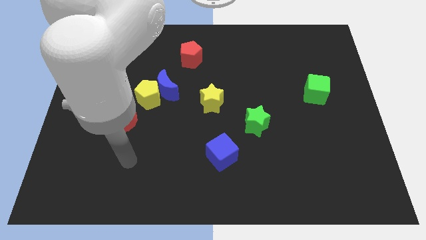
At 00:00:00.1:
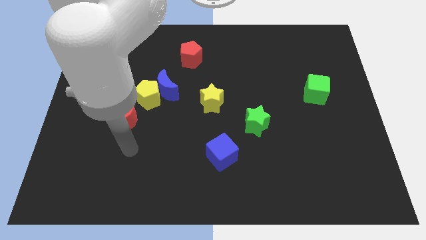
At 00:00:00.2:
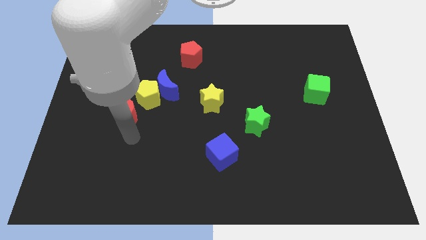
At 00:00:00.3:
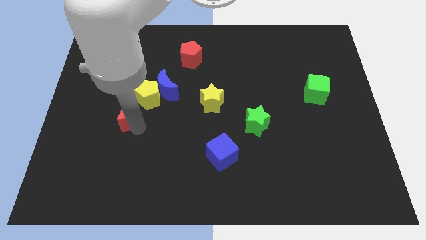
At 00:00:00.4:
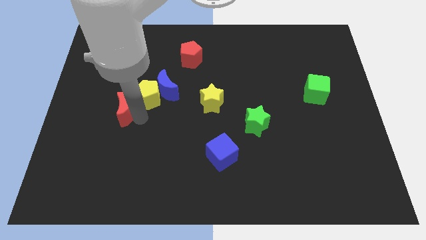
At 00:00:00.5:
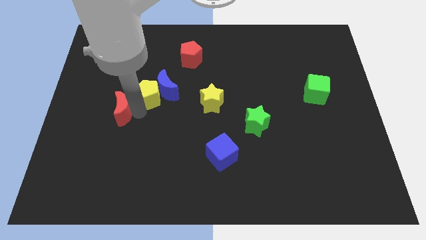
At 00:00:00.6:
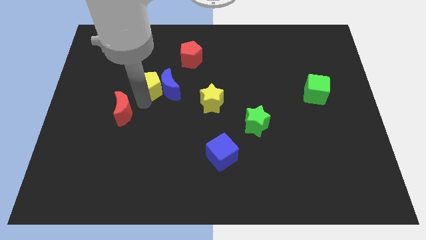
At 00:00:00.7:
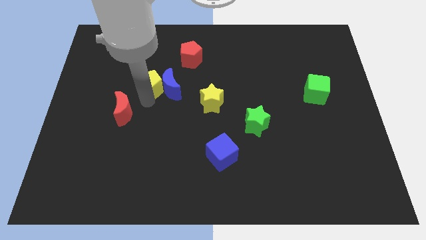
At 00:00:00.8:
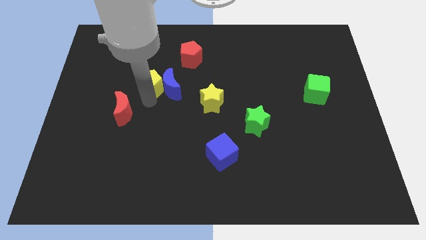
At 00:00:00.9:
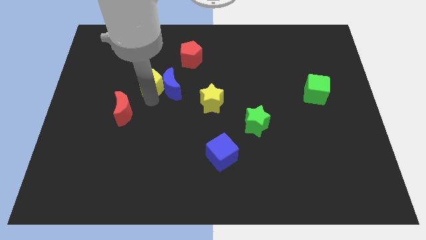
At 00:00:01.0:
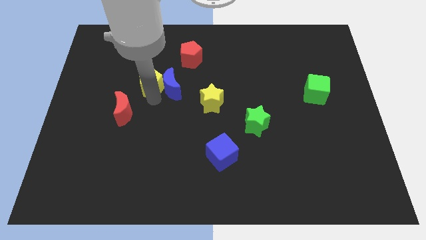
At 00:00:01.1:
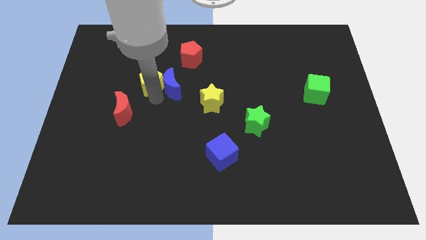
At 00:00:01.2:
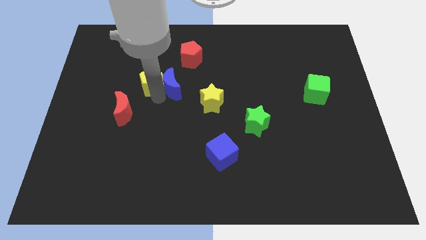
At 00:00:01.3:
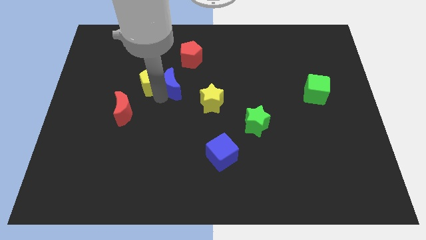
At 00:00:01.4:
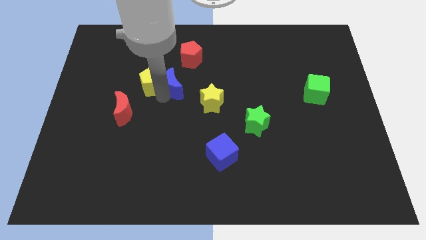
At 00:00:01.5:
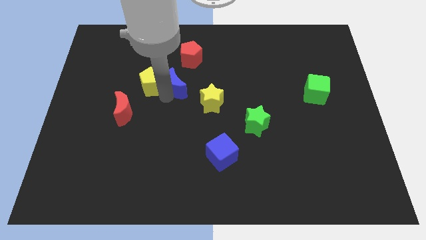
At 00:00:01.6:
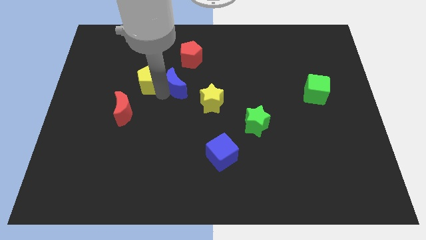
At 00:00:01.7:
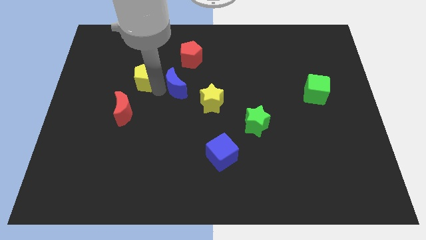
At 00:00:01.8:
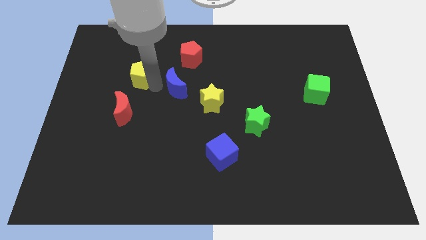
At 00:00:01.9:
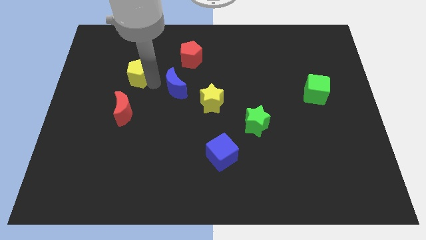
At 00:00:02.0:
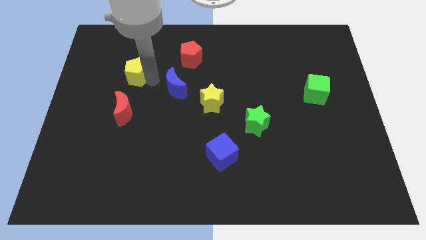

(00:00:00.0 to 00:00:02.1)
pull the blue moon apart from the yellow pentagon

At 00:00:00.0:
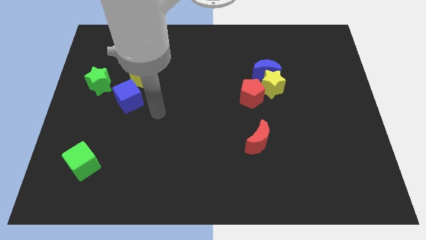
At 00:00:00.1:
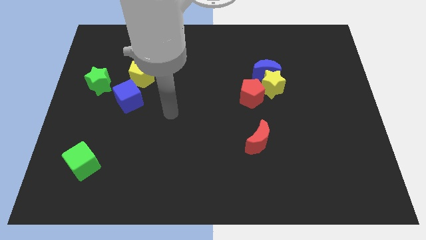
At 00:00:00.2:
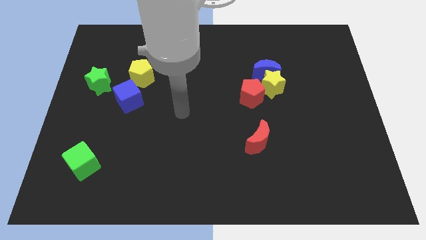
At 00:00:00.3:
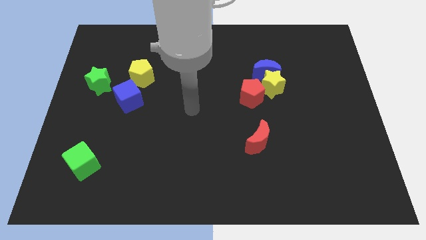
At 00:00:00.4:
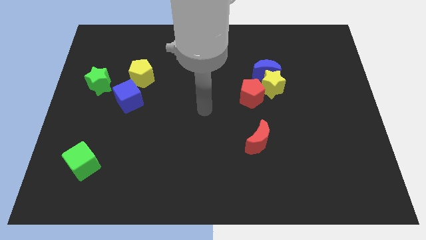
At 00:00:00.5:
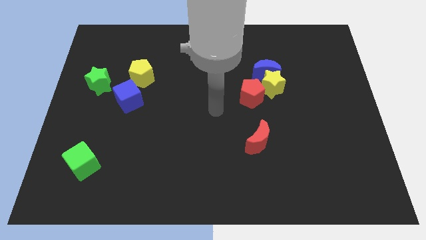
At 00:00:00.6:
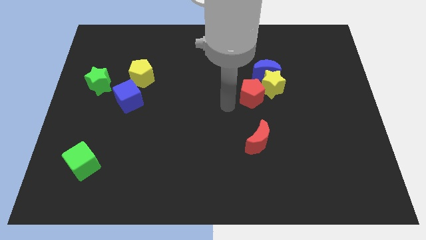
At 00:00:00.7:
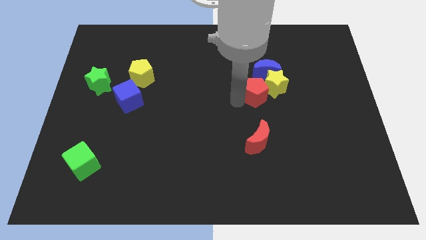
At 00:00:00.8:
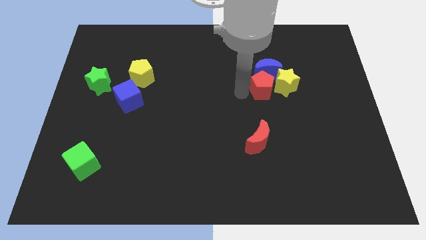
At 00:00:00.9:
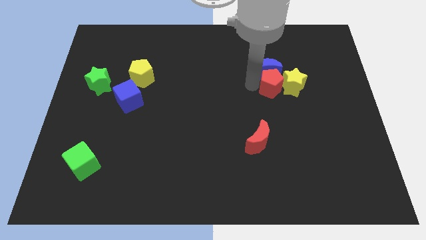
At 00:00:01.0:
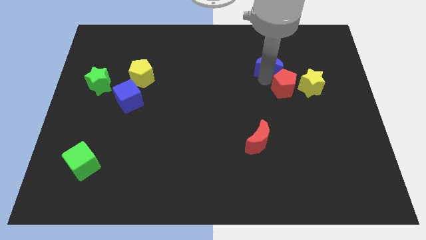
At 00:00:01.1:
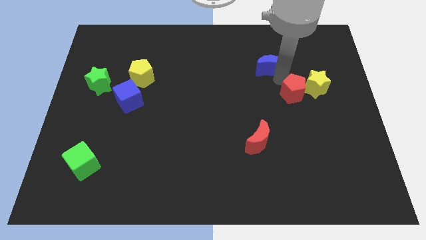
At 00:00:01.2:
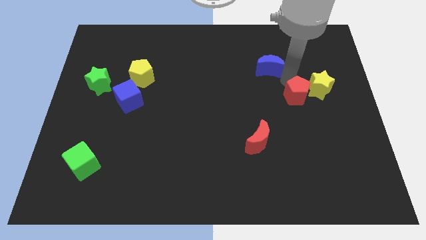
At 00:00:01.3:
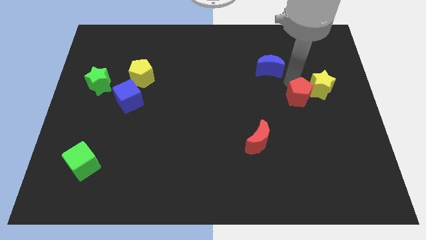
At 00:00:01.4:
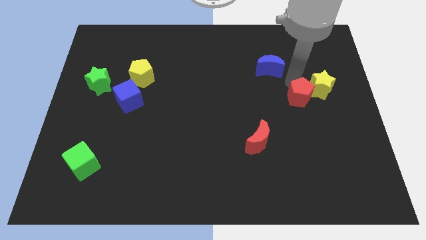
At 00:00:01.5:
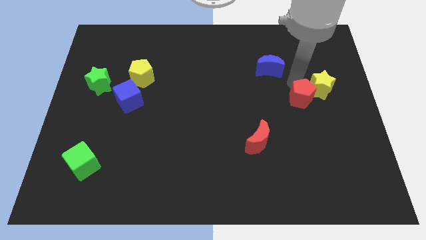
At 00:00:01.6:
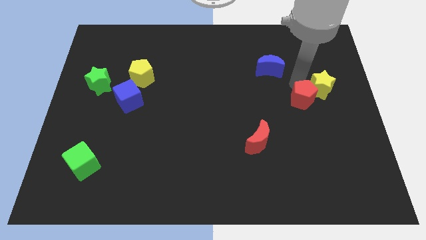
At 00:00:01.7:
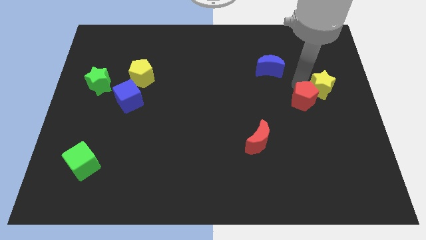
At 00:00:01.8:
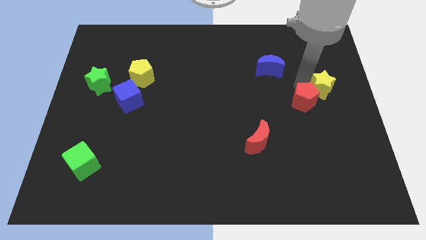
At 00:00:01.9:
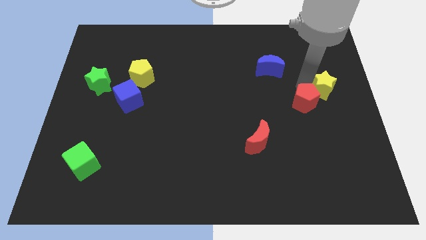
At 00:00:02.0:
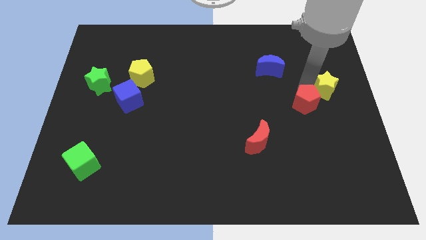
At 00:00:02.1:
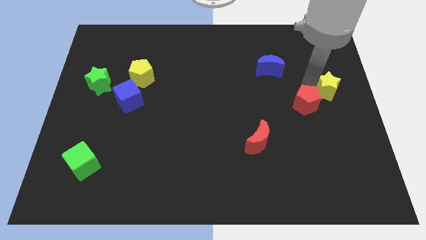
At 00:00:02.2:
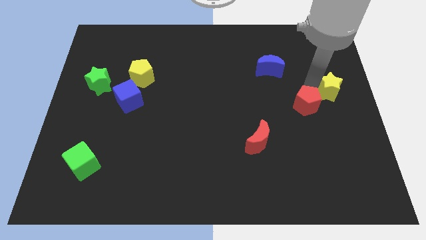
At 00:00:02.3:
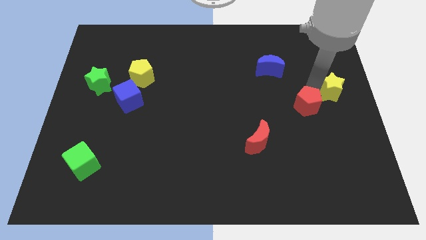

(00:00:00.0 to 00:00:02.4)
separate the yellow star from the blue moon and red pentagon

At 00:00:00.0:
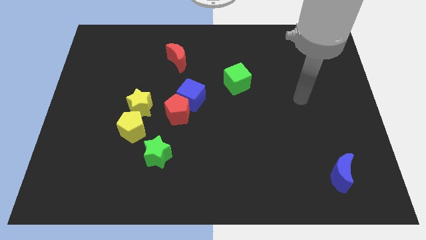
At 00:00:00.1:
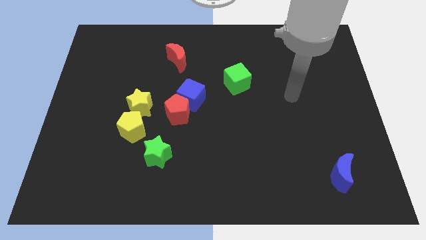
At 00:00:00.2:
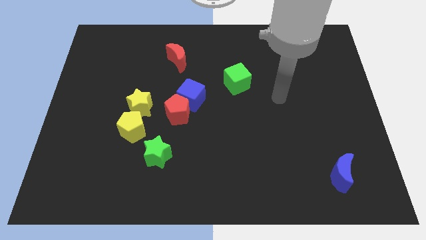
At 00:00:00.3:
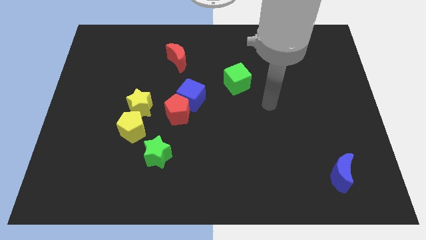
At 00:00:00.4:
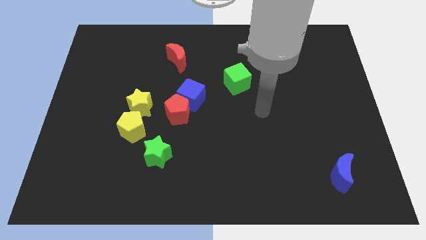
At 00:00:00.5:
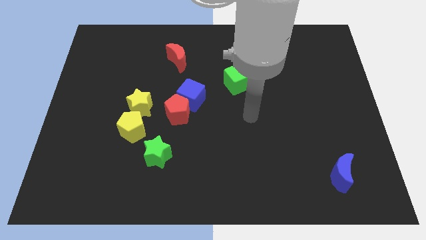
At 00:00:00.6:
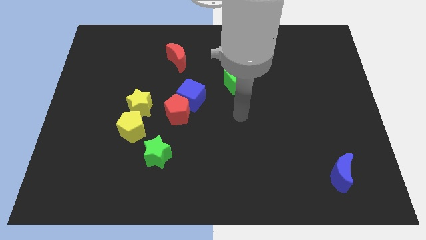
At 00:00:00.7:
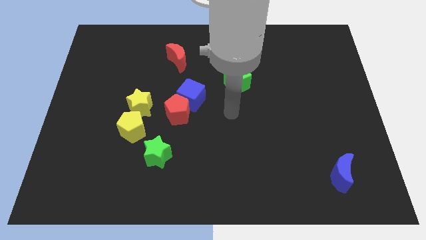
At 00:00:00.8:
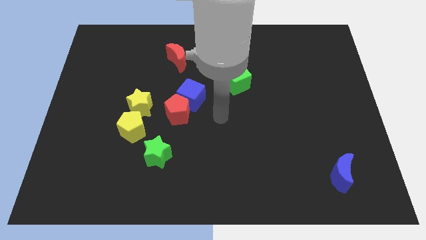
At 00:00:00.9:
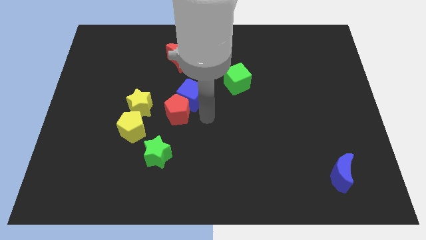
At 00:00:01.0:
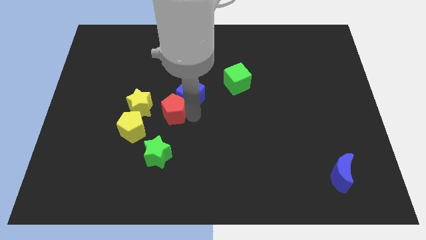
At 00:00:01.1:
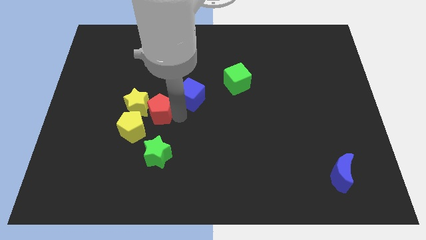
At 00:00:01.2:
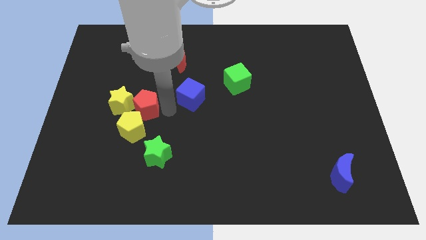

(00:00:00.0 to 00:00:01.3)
pull the blue cube apart from the red pentagon

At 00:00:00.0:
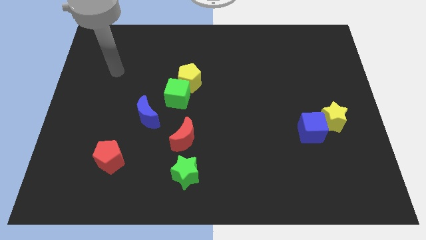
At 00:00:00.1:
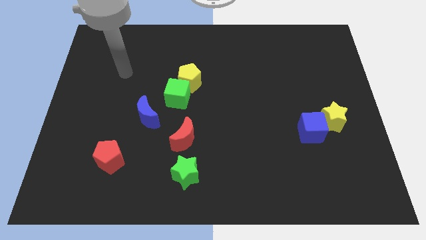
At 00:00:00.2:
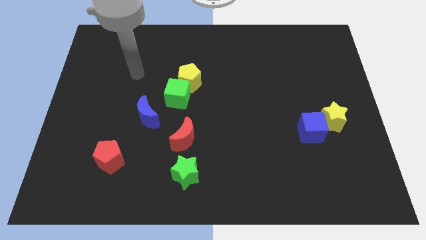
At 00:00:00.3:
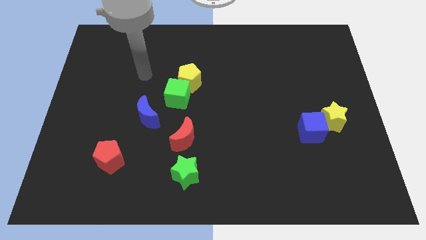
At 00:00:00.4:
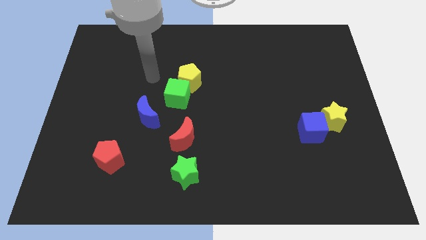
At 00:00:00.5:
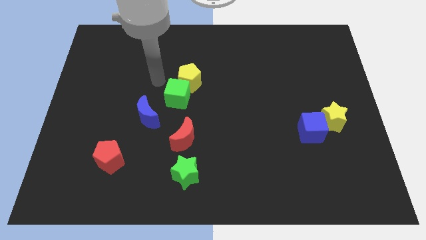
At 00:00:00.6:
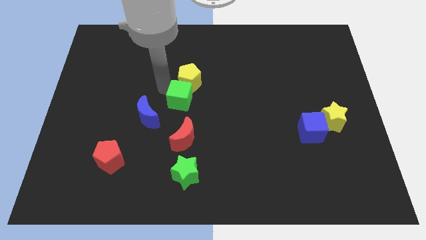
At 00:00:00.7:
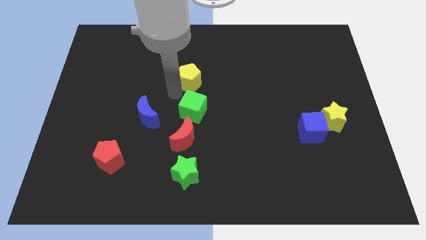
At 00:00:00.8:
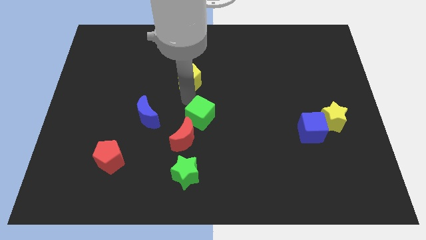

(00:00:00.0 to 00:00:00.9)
pull the yellow pentagon apart from the green cube

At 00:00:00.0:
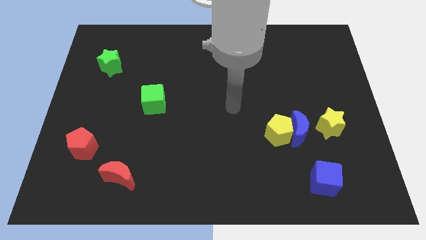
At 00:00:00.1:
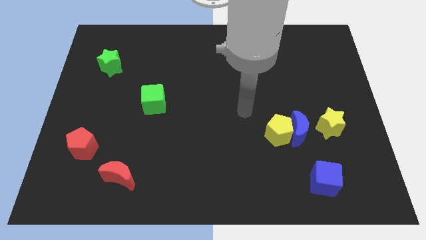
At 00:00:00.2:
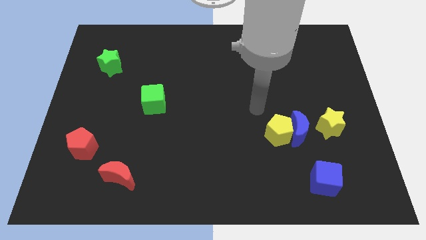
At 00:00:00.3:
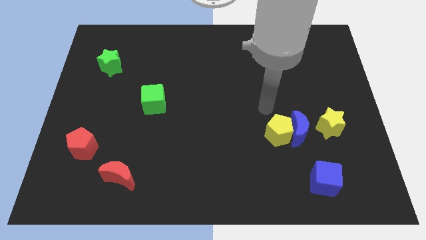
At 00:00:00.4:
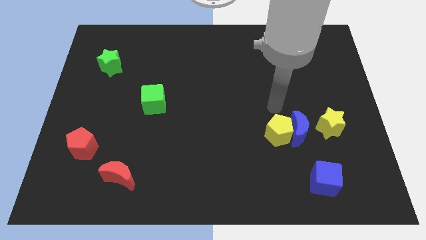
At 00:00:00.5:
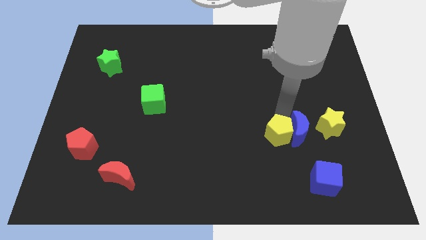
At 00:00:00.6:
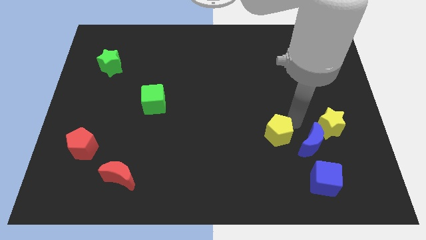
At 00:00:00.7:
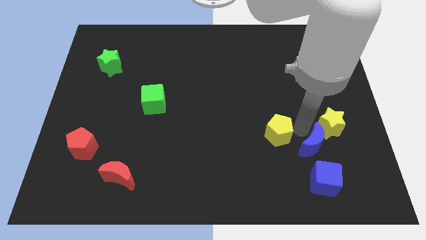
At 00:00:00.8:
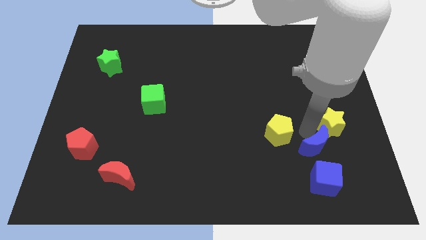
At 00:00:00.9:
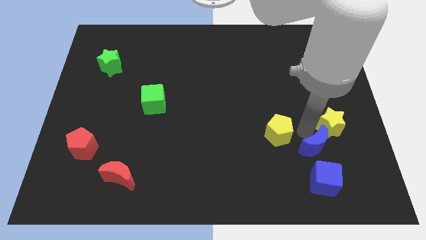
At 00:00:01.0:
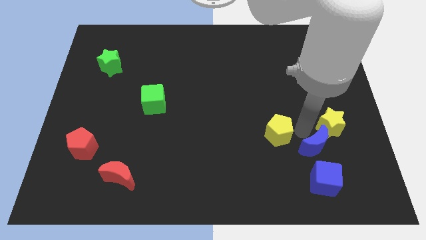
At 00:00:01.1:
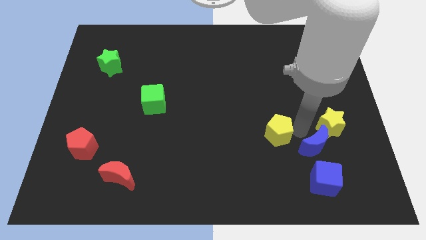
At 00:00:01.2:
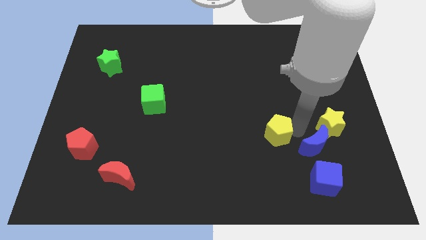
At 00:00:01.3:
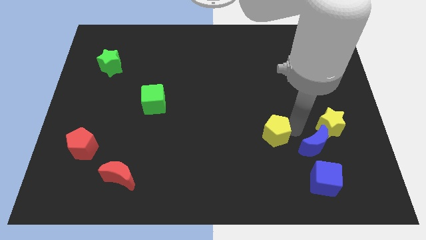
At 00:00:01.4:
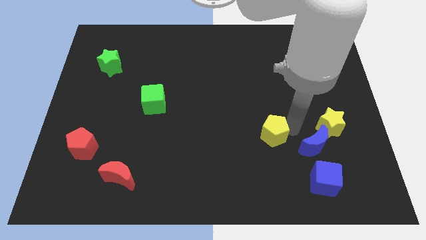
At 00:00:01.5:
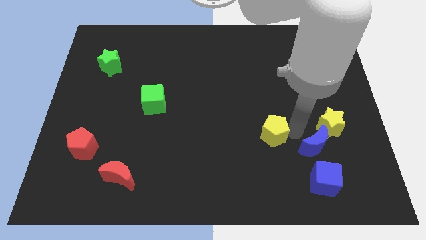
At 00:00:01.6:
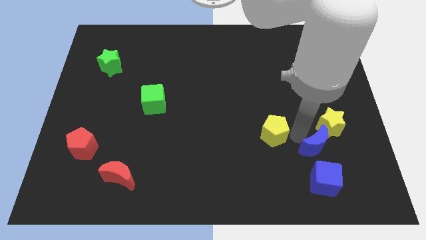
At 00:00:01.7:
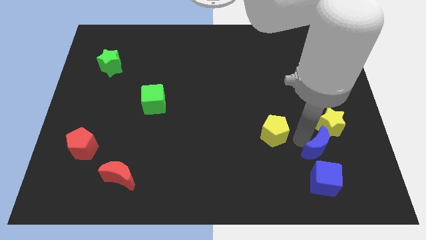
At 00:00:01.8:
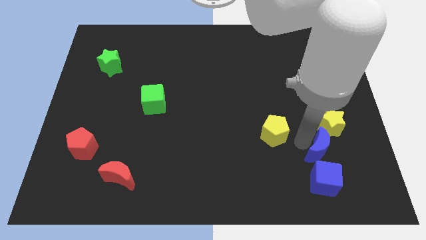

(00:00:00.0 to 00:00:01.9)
move the yellow pentagon away from the blue moon

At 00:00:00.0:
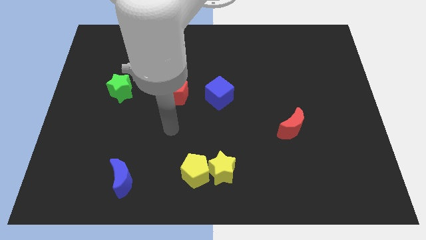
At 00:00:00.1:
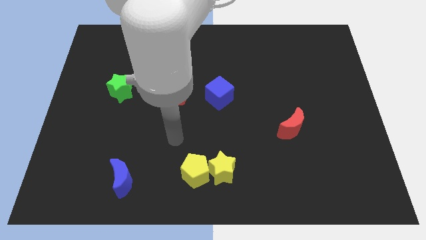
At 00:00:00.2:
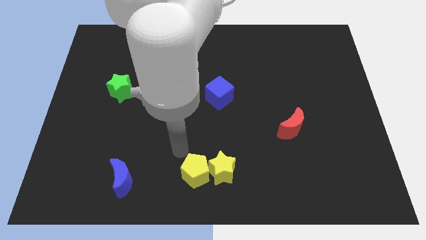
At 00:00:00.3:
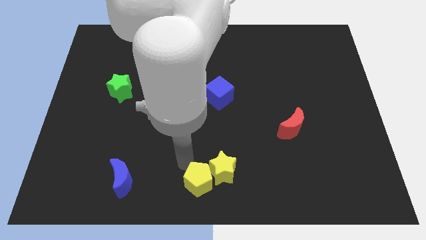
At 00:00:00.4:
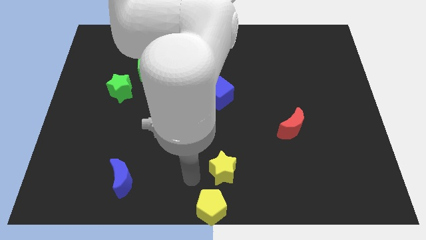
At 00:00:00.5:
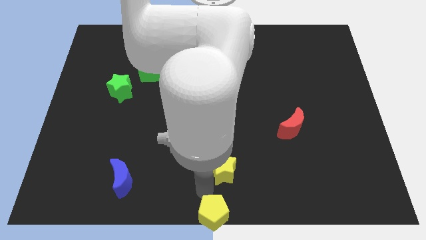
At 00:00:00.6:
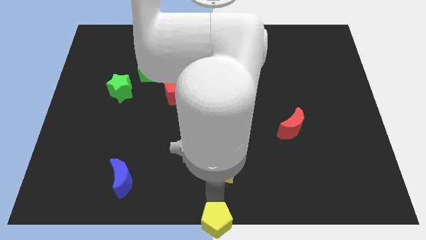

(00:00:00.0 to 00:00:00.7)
separate the yellow star from the yellow pentagon

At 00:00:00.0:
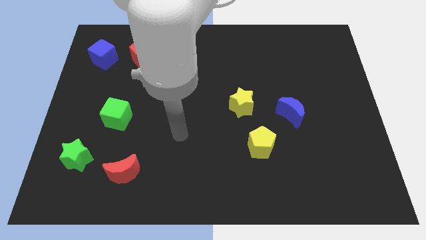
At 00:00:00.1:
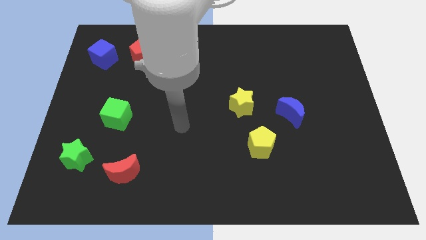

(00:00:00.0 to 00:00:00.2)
separate the red pentagon from the blue cube
